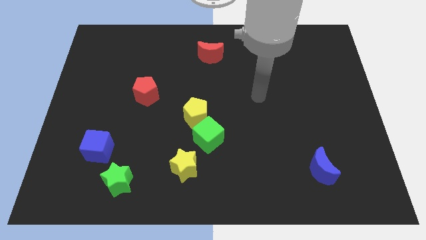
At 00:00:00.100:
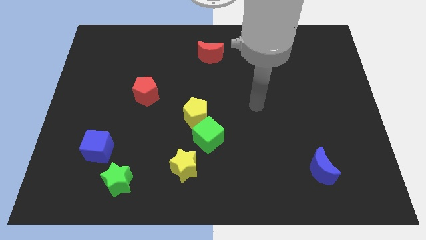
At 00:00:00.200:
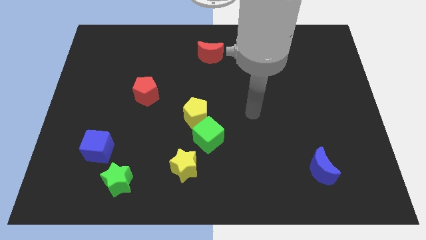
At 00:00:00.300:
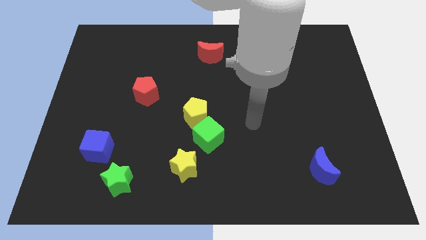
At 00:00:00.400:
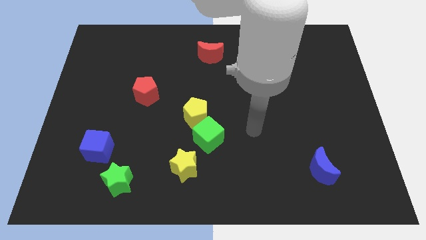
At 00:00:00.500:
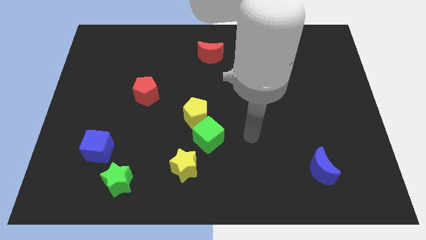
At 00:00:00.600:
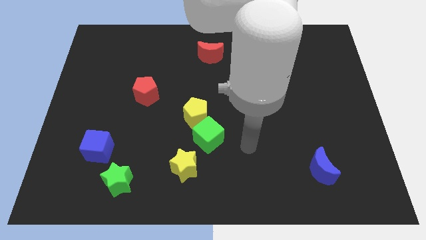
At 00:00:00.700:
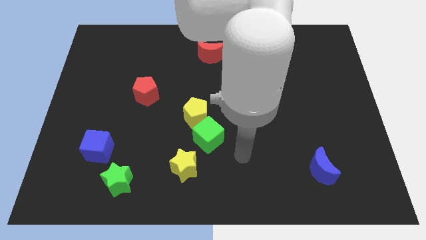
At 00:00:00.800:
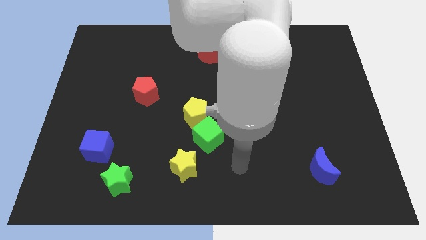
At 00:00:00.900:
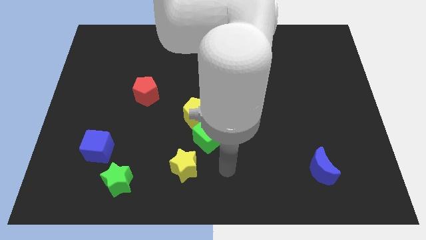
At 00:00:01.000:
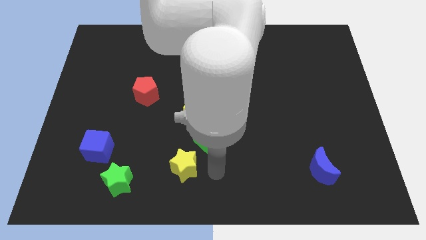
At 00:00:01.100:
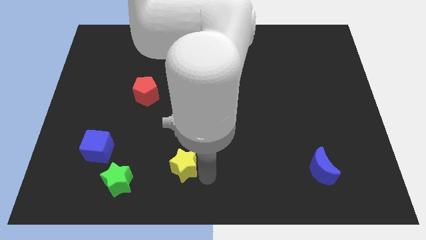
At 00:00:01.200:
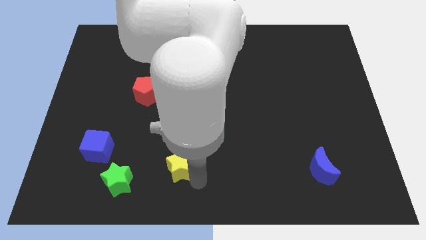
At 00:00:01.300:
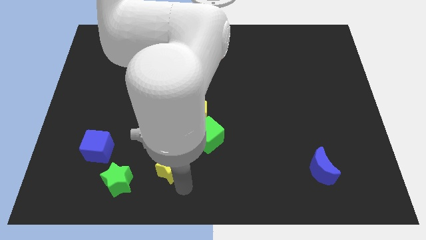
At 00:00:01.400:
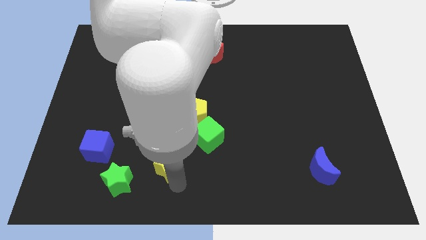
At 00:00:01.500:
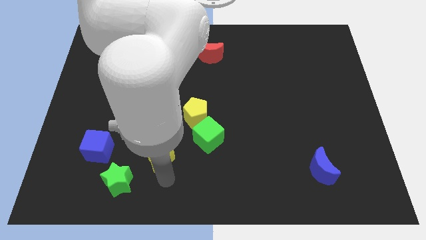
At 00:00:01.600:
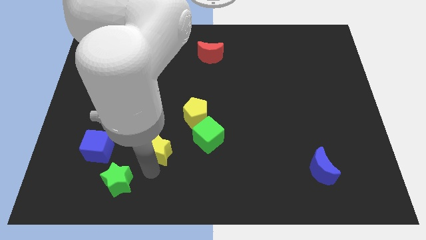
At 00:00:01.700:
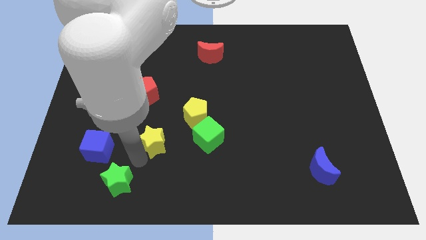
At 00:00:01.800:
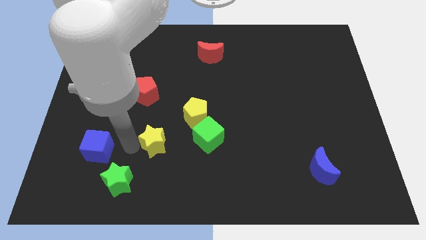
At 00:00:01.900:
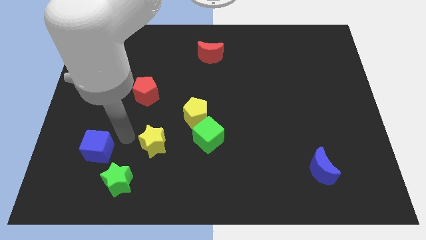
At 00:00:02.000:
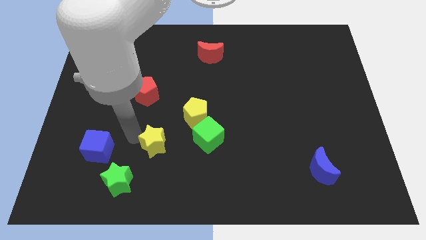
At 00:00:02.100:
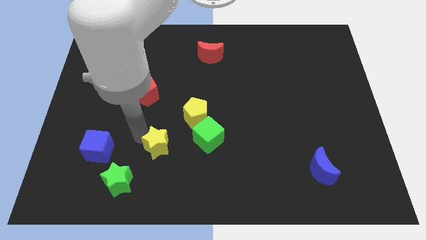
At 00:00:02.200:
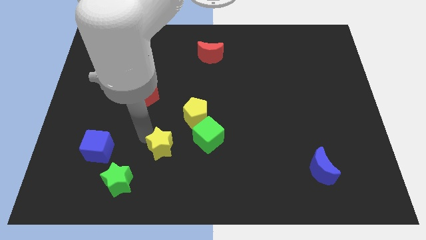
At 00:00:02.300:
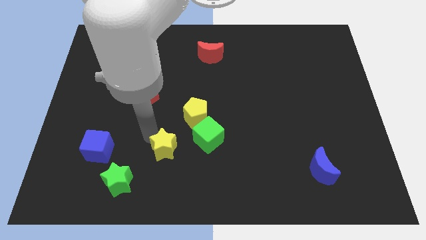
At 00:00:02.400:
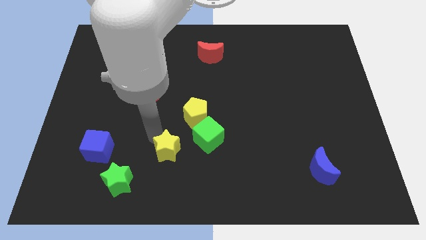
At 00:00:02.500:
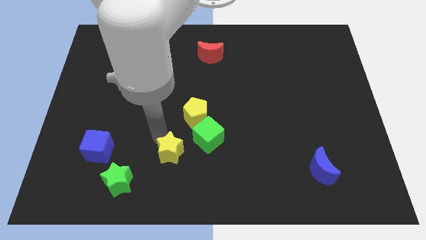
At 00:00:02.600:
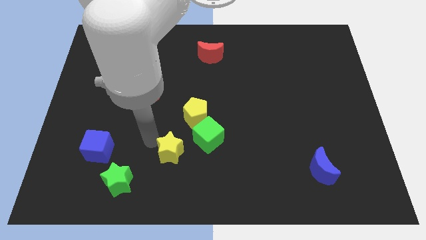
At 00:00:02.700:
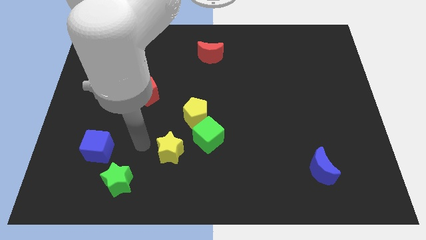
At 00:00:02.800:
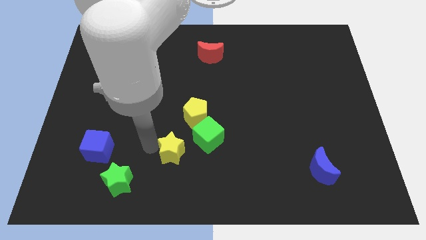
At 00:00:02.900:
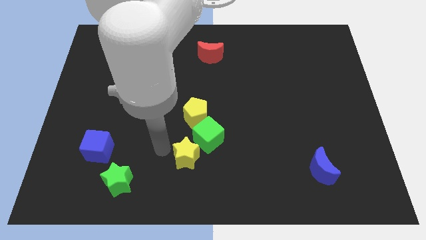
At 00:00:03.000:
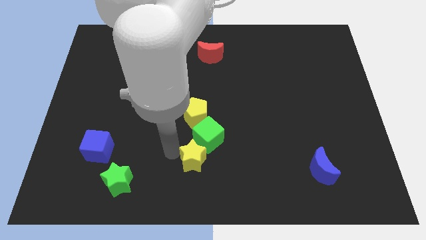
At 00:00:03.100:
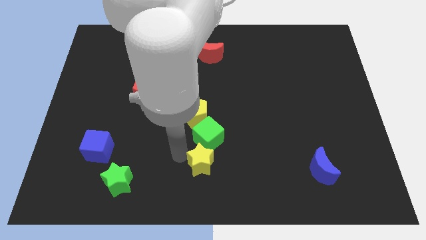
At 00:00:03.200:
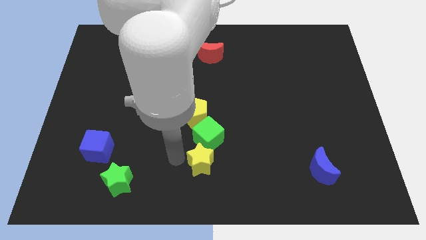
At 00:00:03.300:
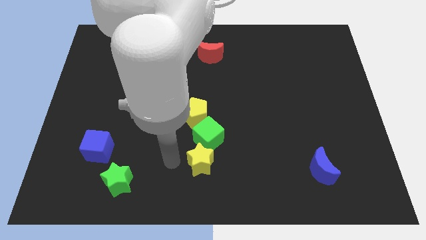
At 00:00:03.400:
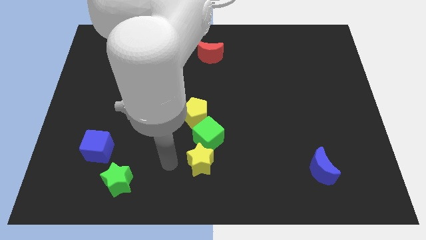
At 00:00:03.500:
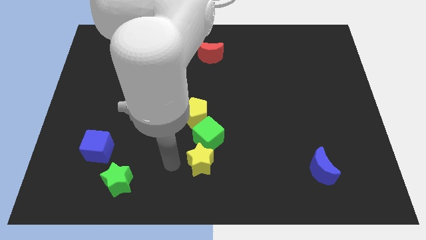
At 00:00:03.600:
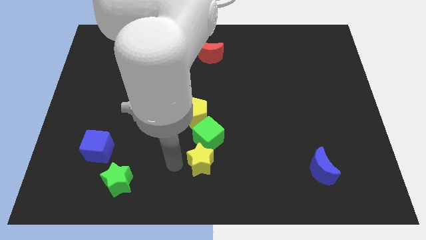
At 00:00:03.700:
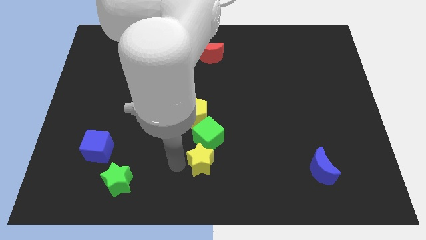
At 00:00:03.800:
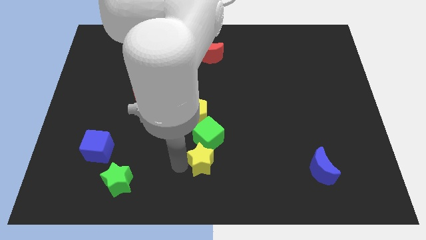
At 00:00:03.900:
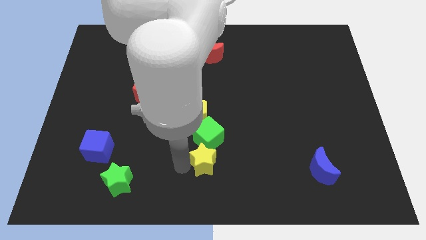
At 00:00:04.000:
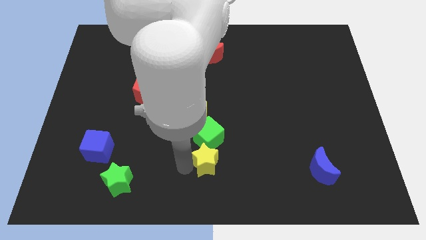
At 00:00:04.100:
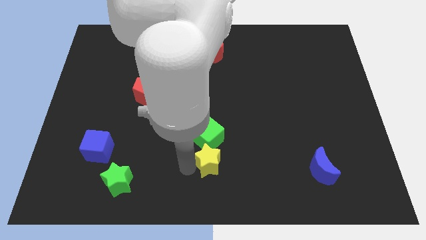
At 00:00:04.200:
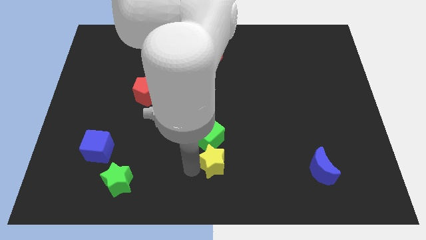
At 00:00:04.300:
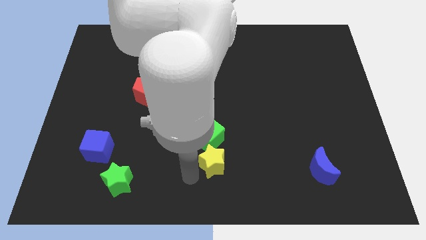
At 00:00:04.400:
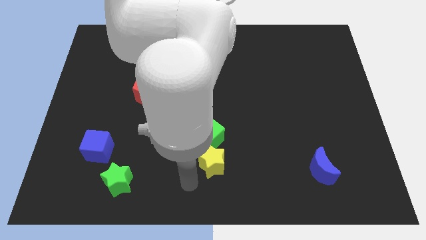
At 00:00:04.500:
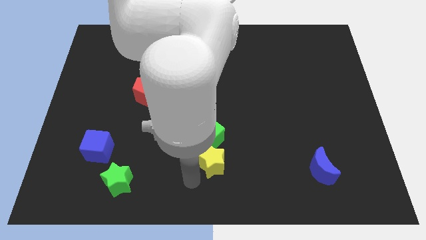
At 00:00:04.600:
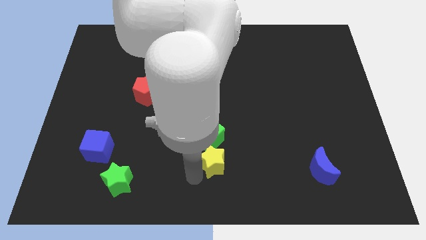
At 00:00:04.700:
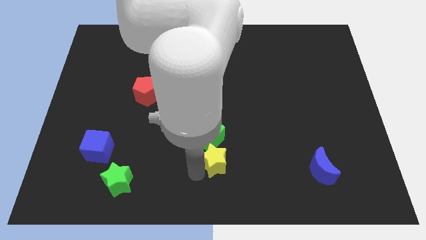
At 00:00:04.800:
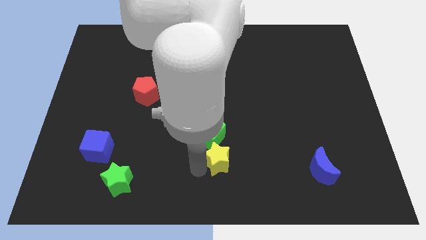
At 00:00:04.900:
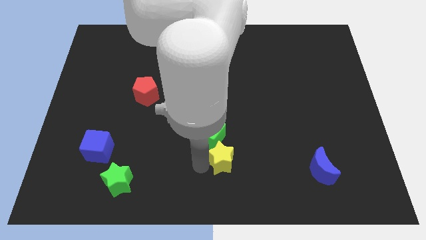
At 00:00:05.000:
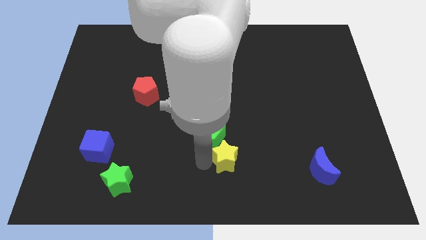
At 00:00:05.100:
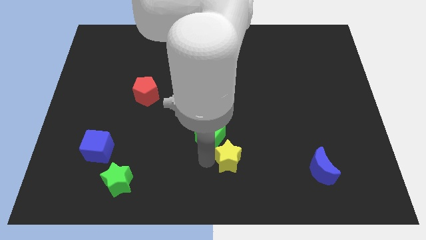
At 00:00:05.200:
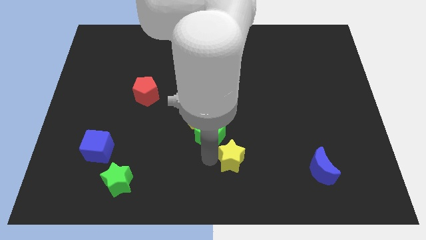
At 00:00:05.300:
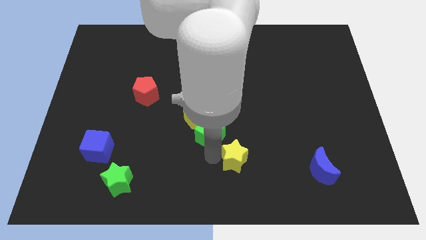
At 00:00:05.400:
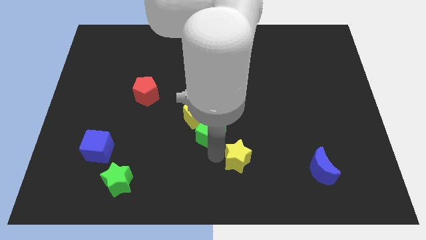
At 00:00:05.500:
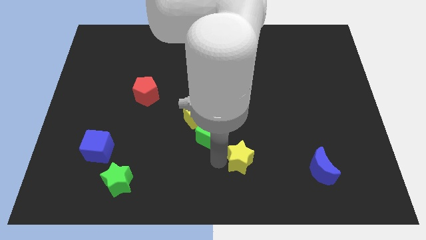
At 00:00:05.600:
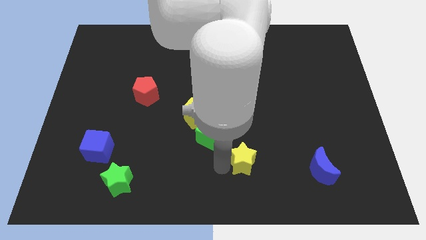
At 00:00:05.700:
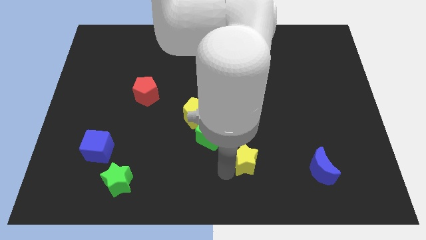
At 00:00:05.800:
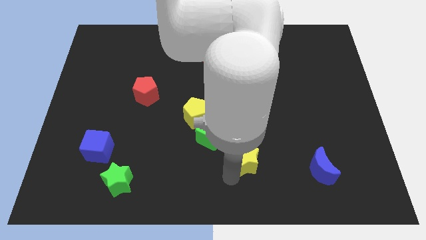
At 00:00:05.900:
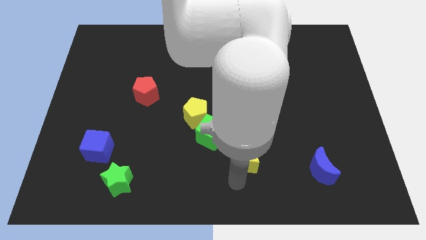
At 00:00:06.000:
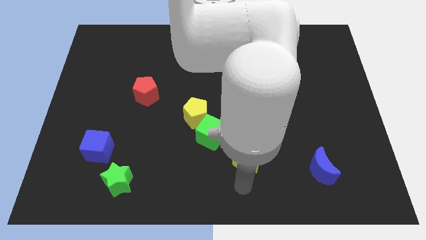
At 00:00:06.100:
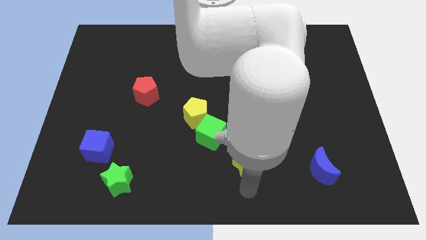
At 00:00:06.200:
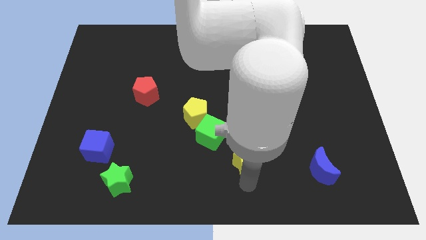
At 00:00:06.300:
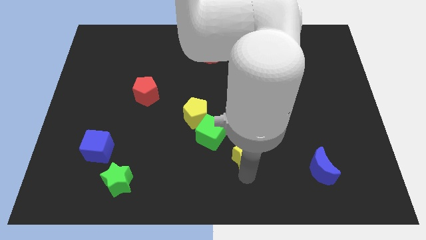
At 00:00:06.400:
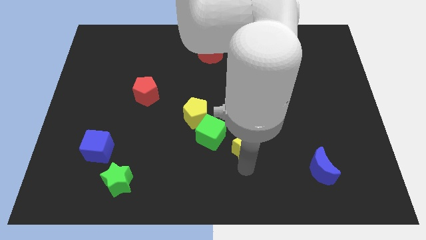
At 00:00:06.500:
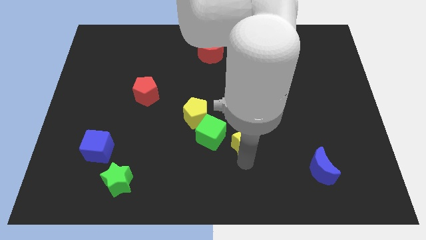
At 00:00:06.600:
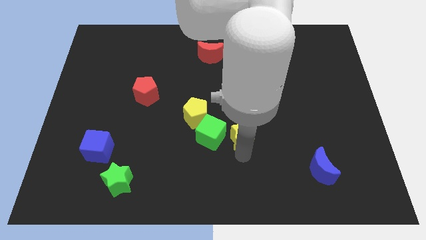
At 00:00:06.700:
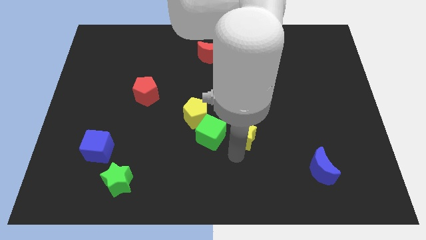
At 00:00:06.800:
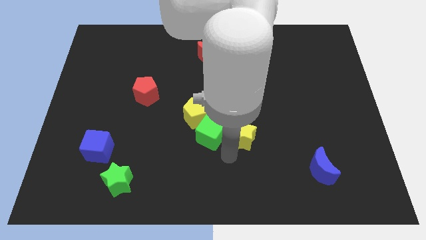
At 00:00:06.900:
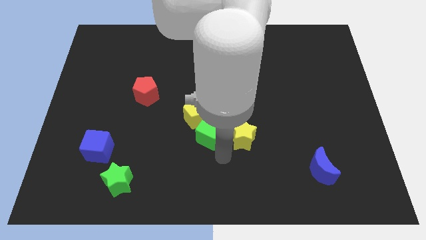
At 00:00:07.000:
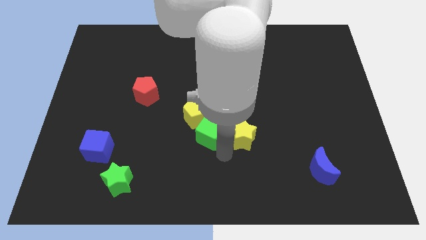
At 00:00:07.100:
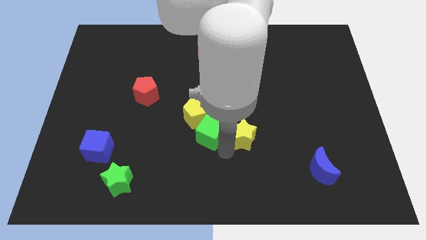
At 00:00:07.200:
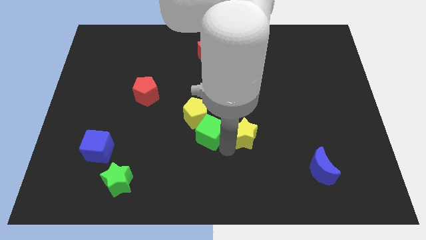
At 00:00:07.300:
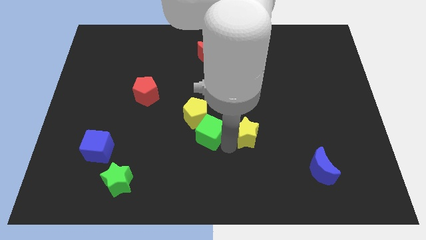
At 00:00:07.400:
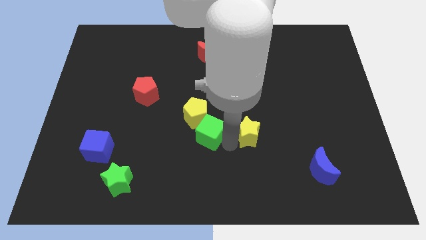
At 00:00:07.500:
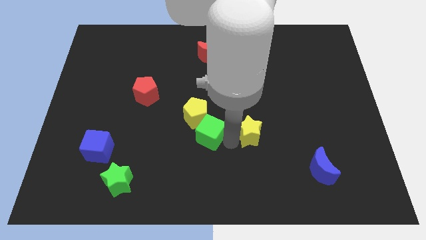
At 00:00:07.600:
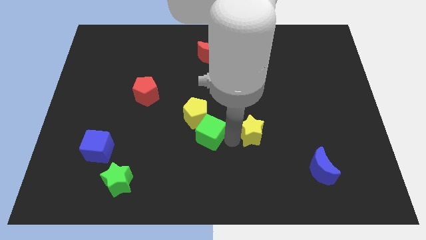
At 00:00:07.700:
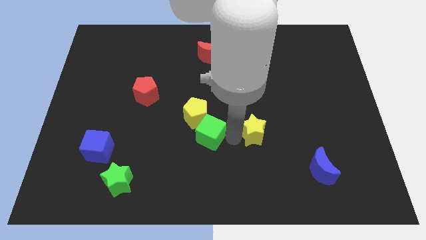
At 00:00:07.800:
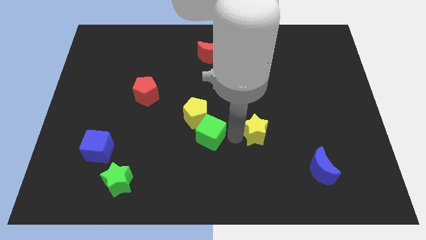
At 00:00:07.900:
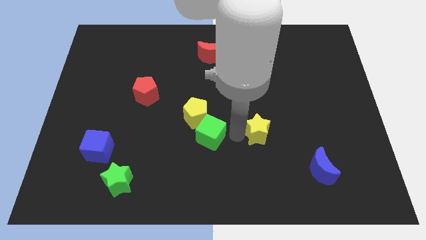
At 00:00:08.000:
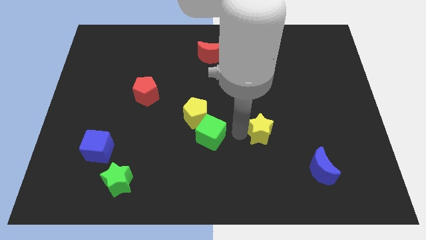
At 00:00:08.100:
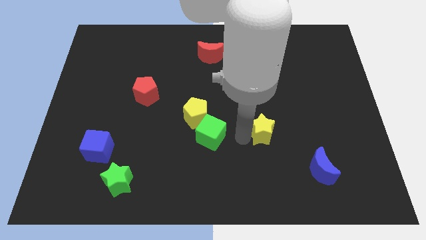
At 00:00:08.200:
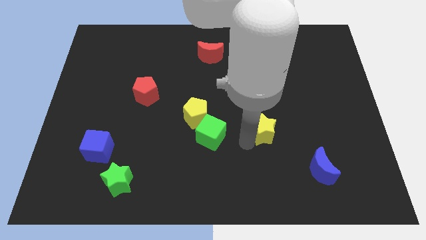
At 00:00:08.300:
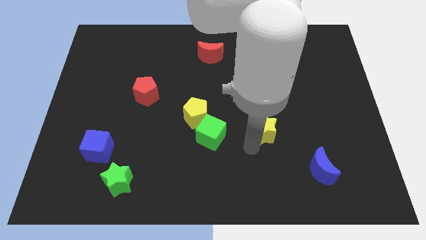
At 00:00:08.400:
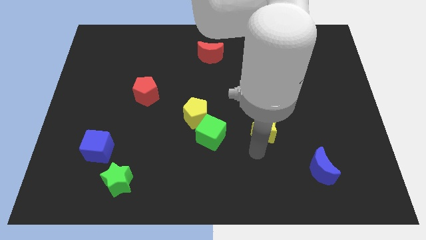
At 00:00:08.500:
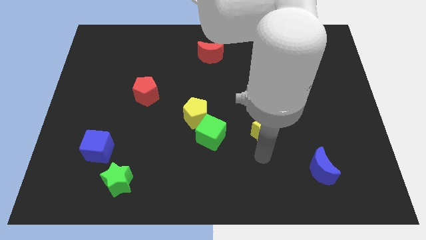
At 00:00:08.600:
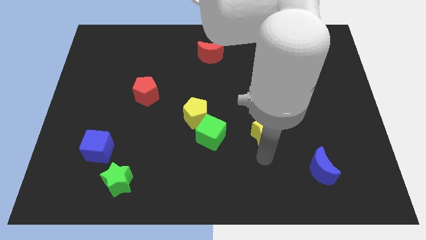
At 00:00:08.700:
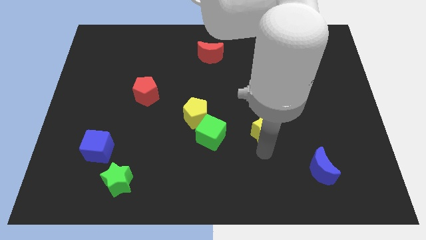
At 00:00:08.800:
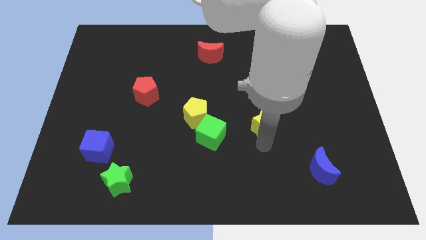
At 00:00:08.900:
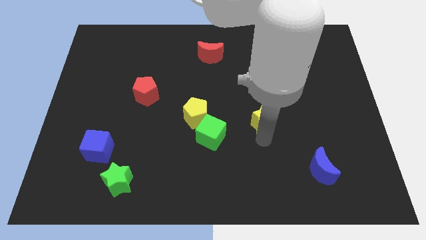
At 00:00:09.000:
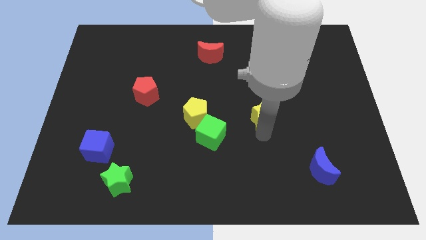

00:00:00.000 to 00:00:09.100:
push the yellow star upwards and then to the right
